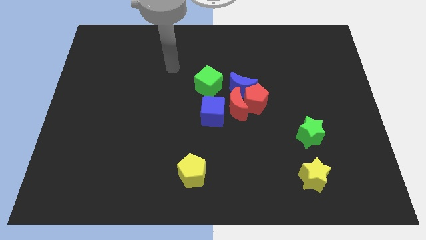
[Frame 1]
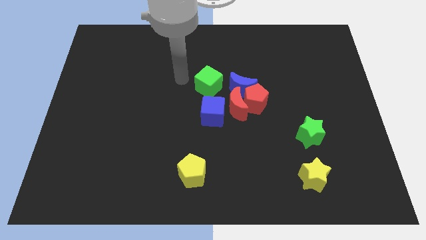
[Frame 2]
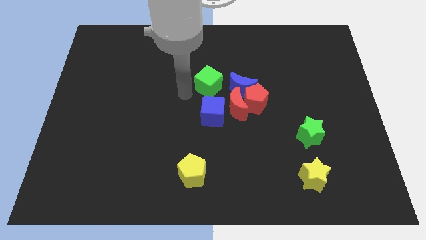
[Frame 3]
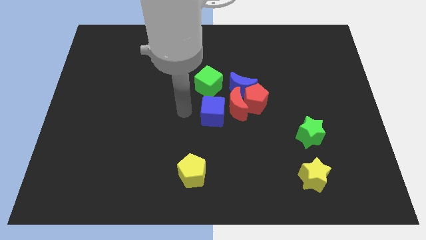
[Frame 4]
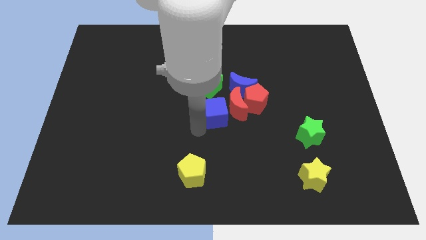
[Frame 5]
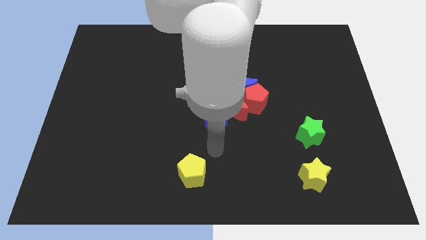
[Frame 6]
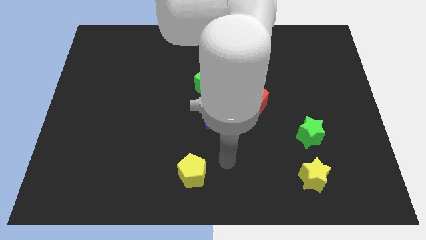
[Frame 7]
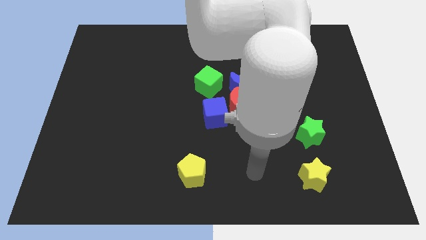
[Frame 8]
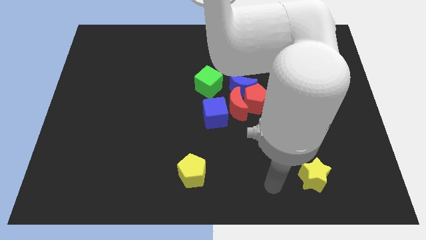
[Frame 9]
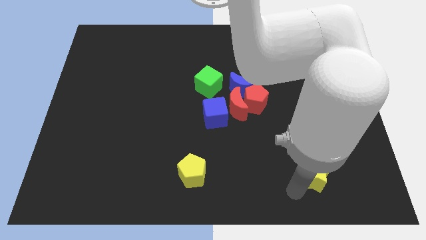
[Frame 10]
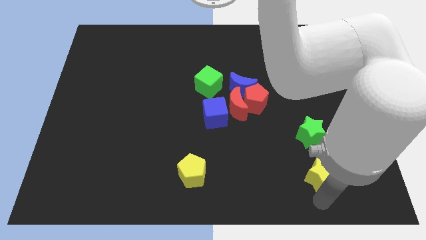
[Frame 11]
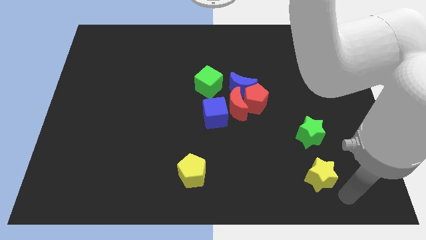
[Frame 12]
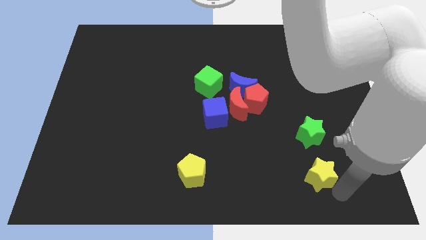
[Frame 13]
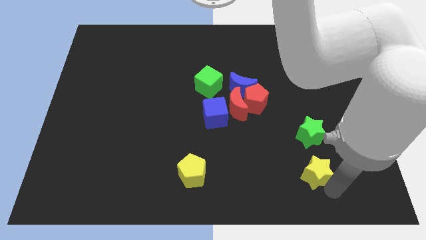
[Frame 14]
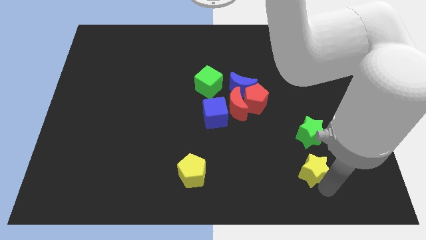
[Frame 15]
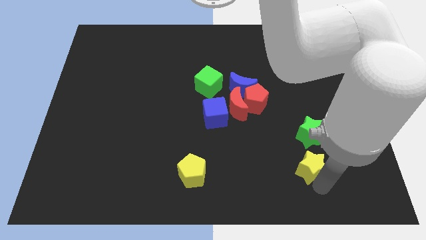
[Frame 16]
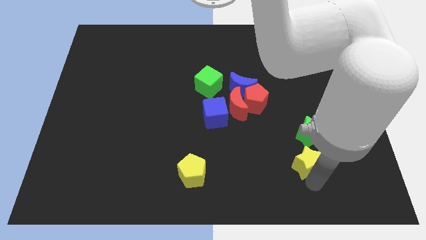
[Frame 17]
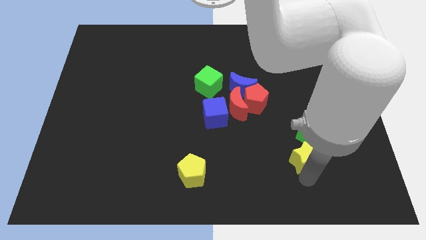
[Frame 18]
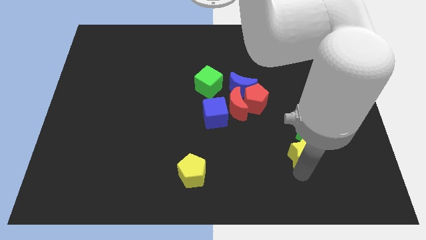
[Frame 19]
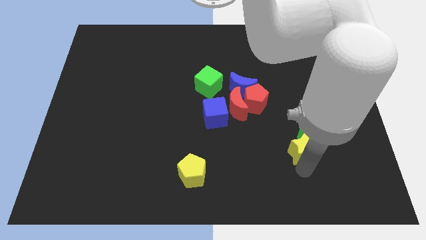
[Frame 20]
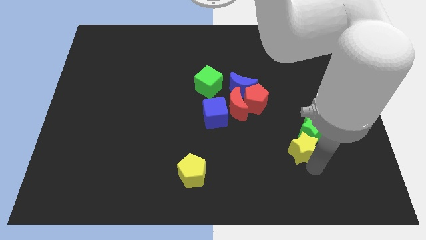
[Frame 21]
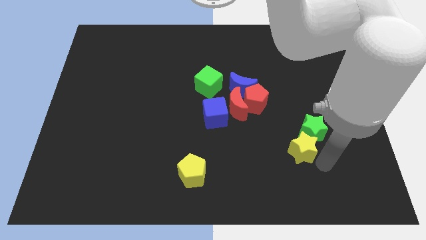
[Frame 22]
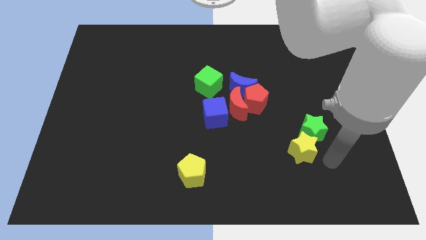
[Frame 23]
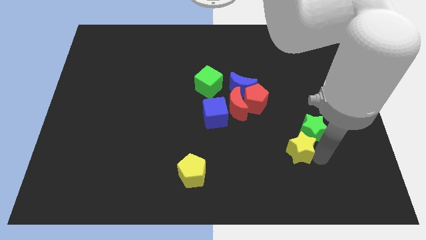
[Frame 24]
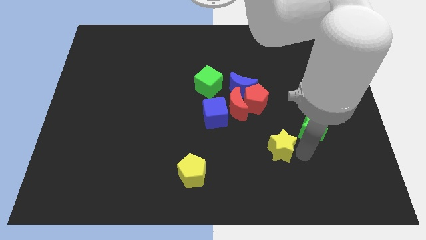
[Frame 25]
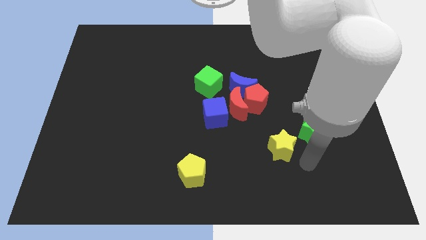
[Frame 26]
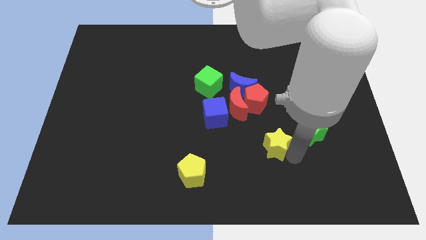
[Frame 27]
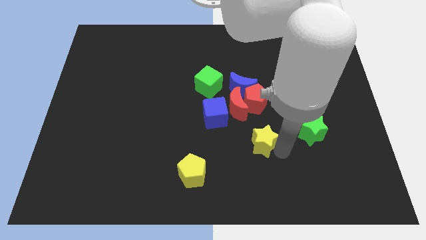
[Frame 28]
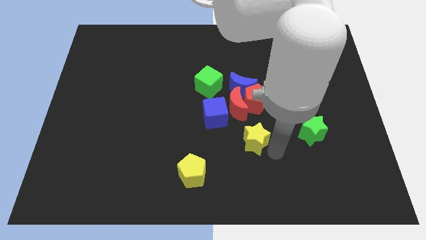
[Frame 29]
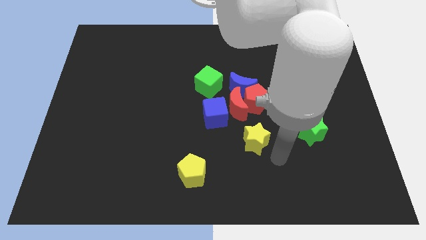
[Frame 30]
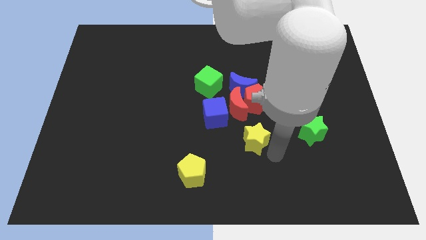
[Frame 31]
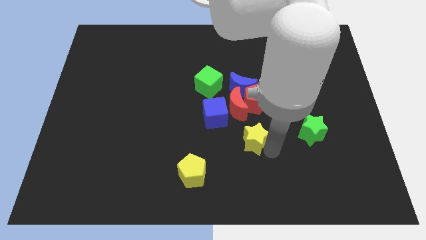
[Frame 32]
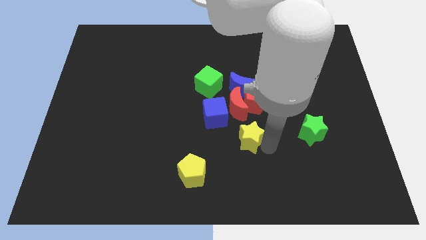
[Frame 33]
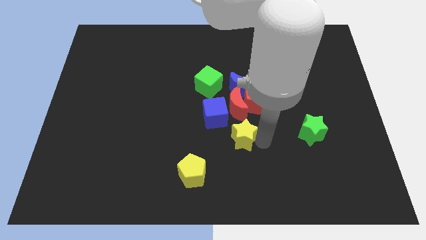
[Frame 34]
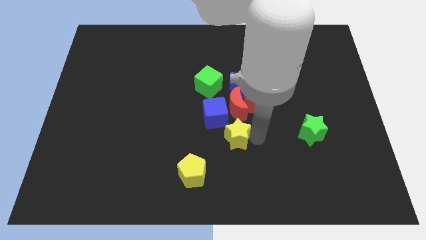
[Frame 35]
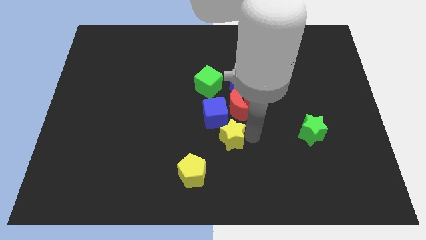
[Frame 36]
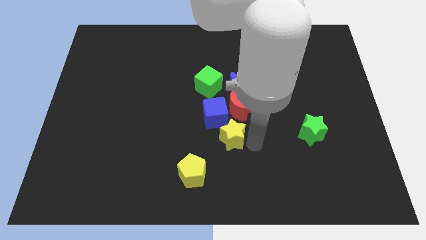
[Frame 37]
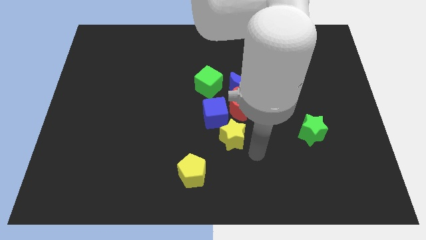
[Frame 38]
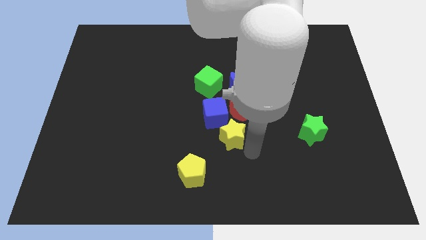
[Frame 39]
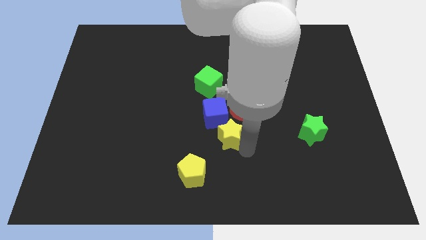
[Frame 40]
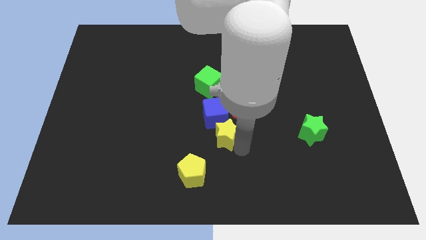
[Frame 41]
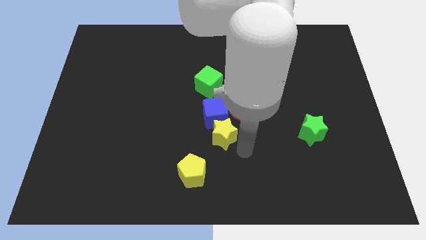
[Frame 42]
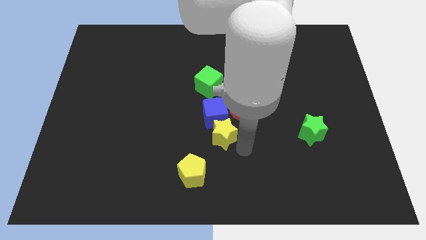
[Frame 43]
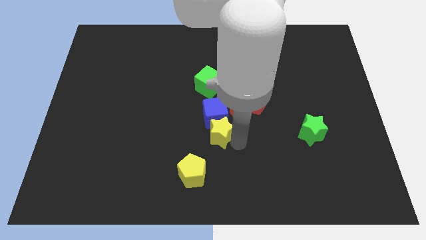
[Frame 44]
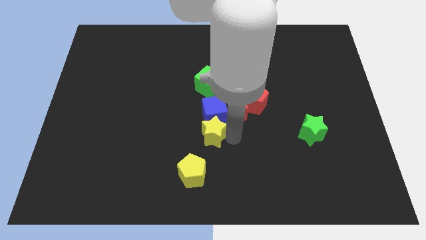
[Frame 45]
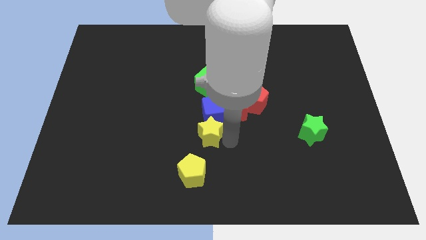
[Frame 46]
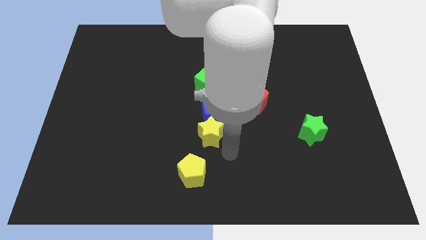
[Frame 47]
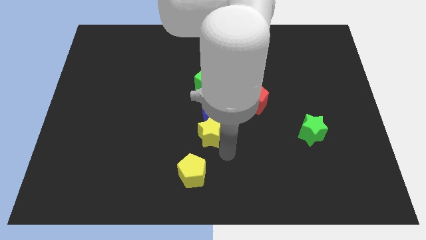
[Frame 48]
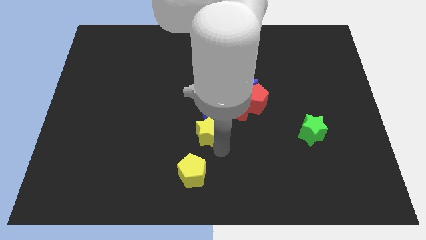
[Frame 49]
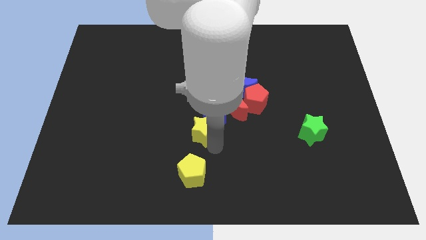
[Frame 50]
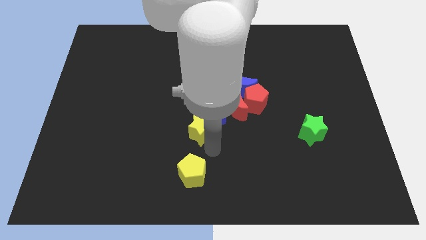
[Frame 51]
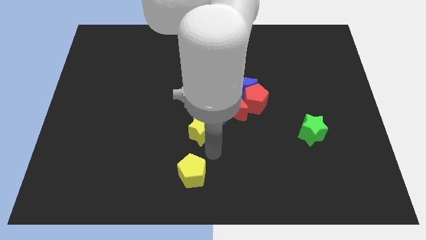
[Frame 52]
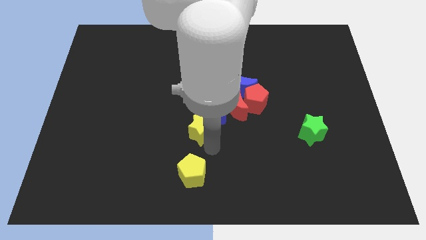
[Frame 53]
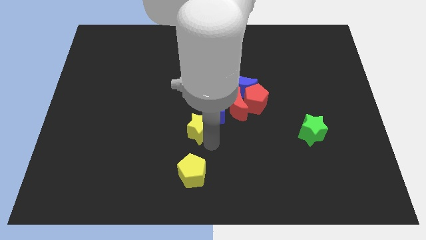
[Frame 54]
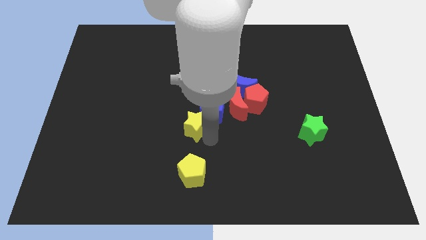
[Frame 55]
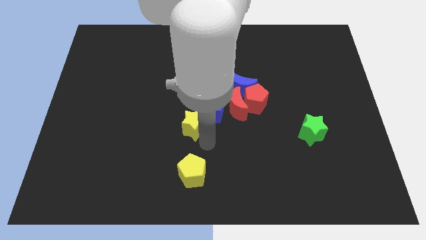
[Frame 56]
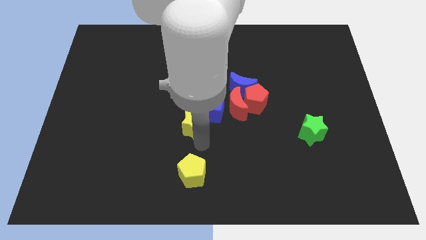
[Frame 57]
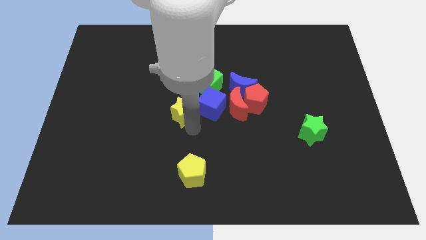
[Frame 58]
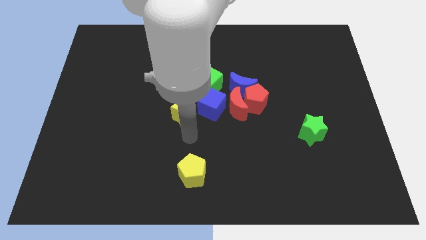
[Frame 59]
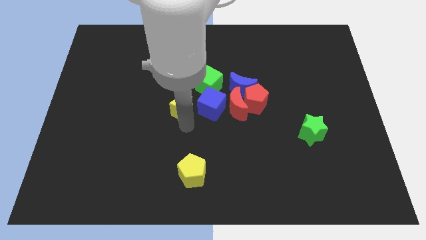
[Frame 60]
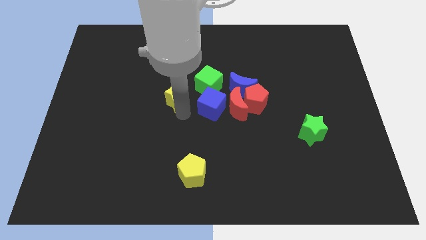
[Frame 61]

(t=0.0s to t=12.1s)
put the yellow star left of the green cube

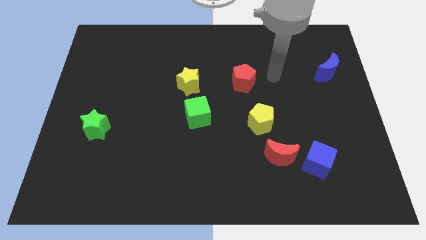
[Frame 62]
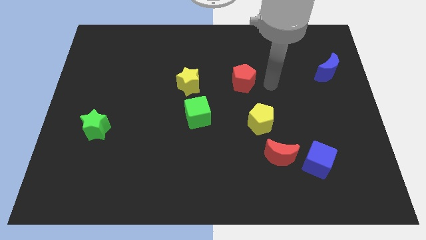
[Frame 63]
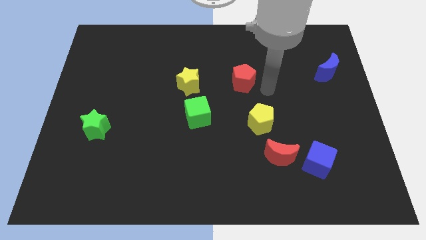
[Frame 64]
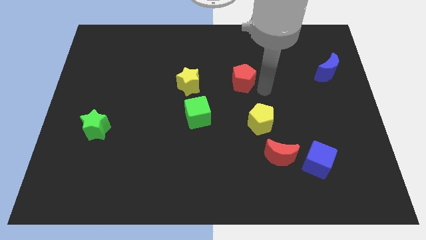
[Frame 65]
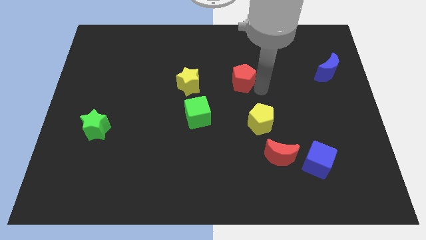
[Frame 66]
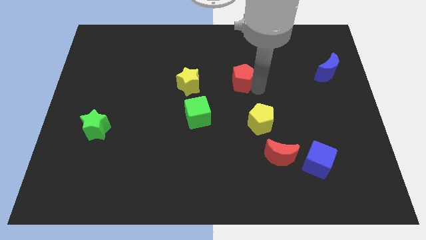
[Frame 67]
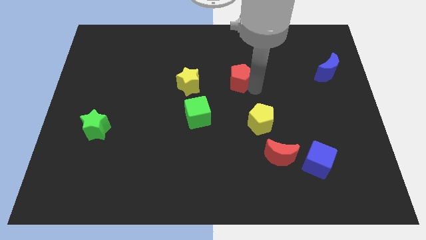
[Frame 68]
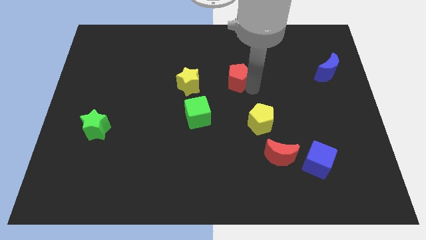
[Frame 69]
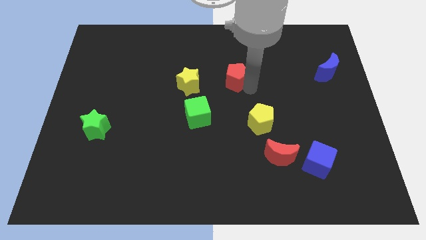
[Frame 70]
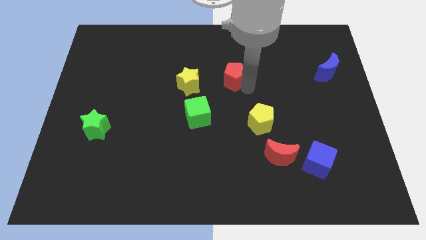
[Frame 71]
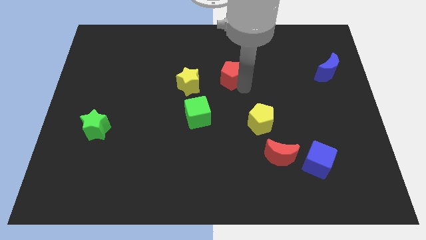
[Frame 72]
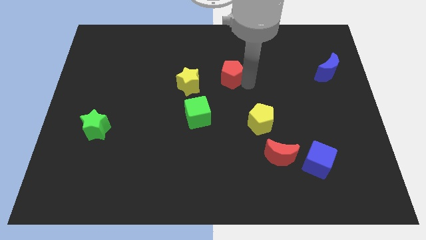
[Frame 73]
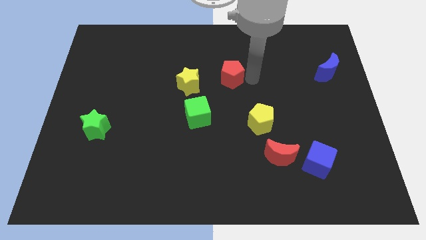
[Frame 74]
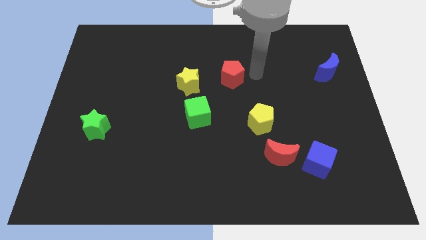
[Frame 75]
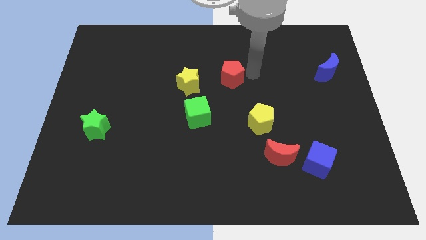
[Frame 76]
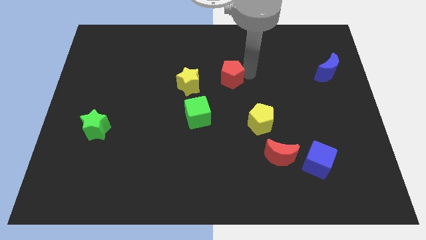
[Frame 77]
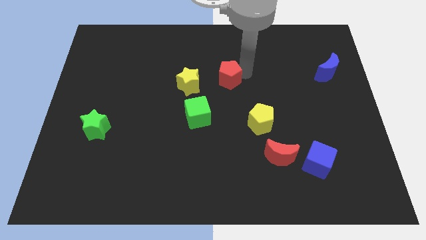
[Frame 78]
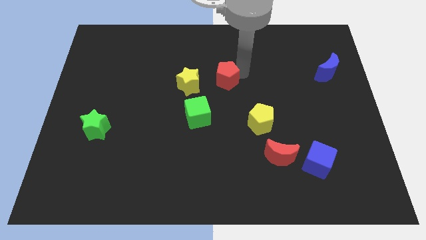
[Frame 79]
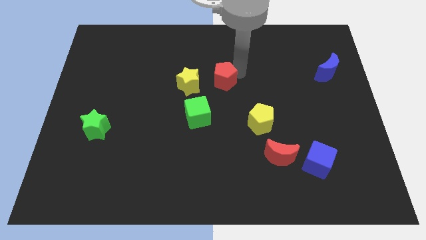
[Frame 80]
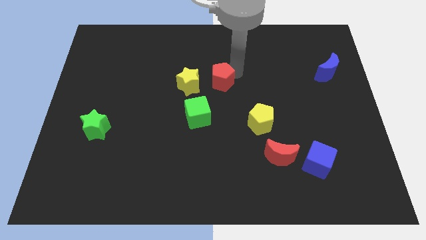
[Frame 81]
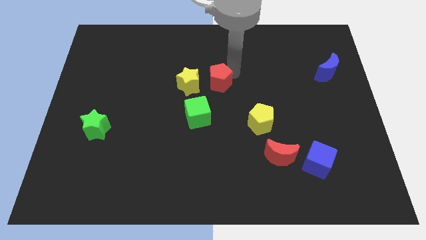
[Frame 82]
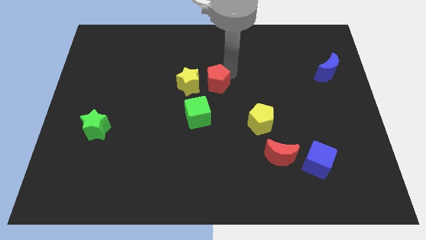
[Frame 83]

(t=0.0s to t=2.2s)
push the red pentagon to the top of the green cube
